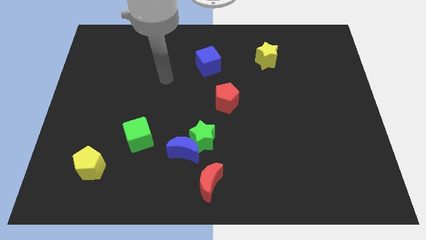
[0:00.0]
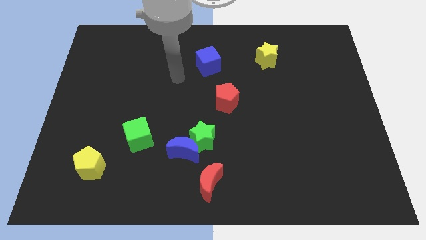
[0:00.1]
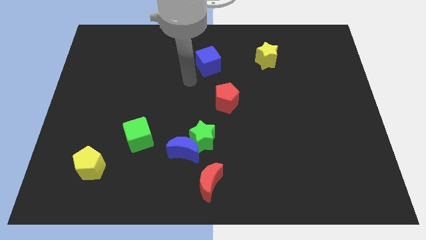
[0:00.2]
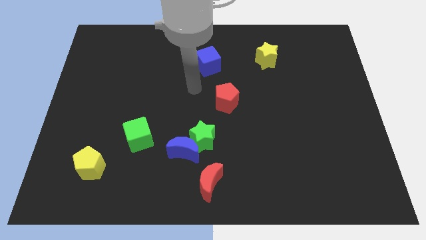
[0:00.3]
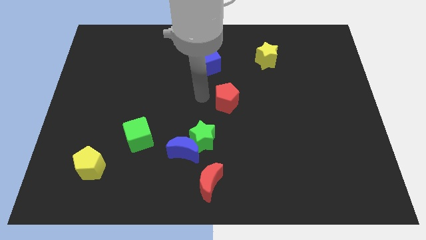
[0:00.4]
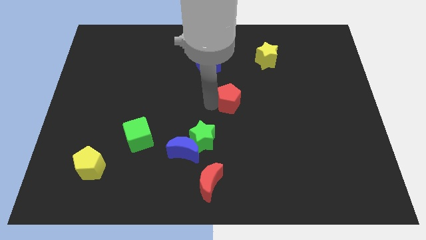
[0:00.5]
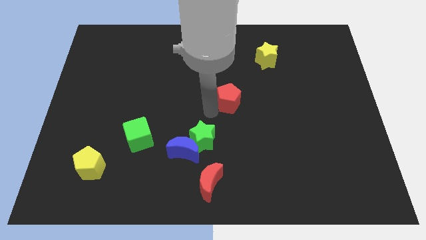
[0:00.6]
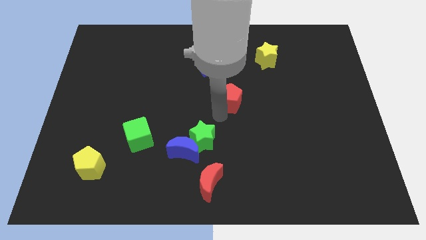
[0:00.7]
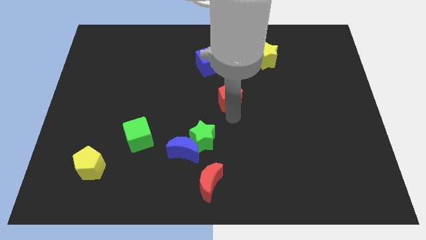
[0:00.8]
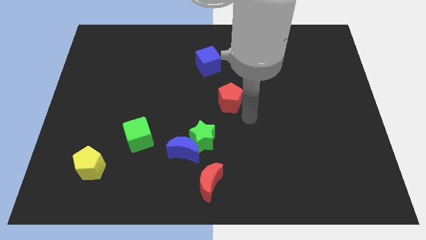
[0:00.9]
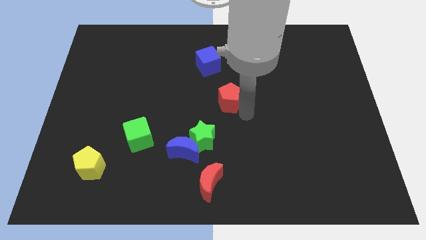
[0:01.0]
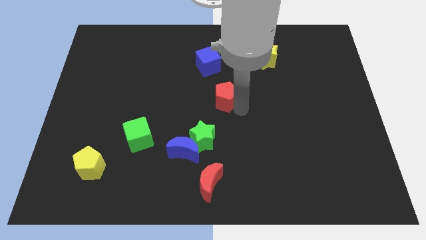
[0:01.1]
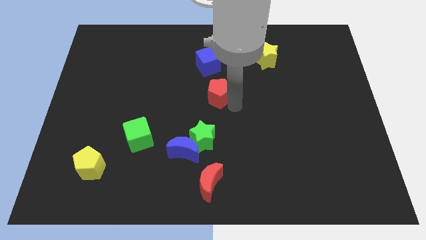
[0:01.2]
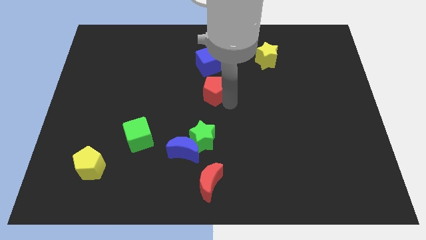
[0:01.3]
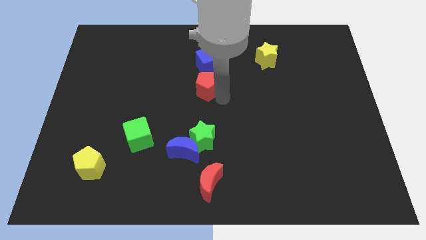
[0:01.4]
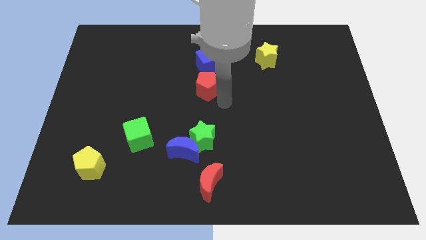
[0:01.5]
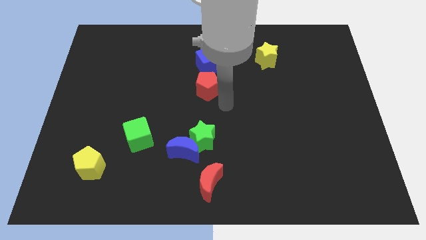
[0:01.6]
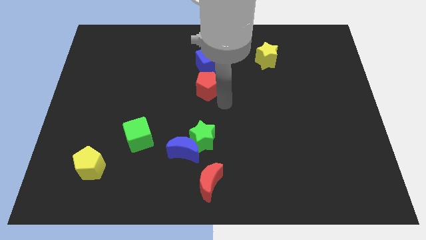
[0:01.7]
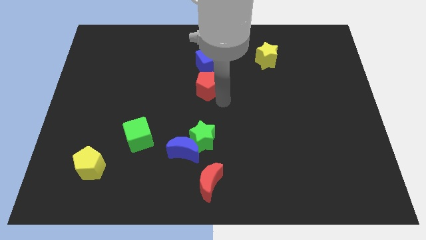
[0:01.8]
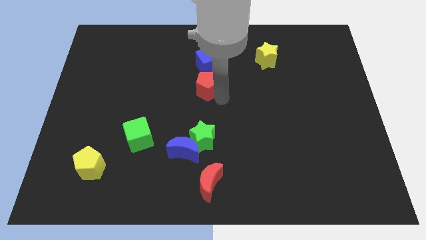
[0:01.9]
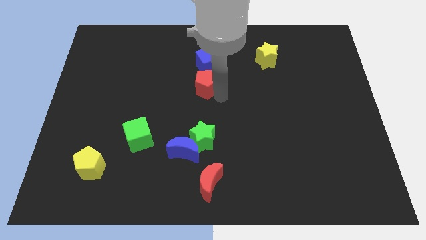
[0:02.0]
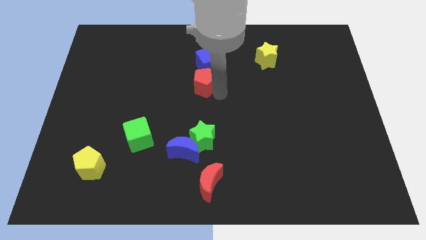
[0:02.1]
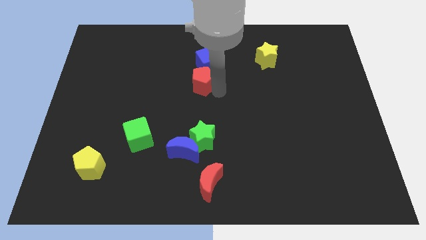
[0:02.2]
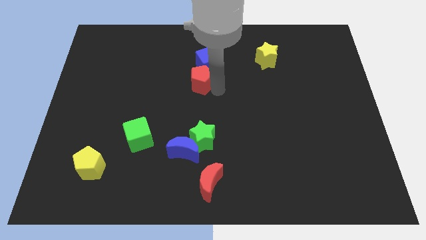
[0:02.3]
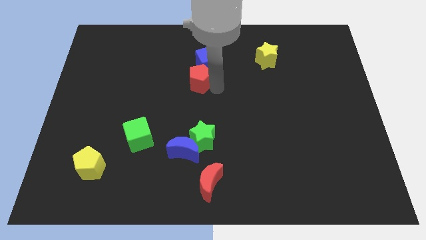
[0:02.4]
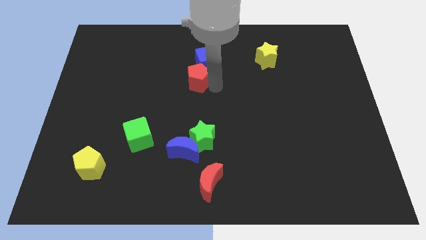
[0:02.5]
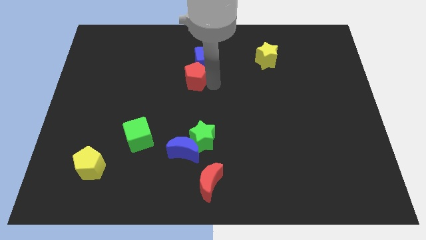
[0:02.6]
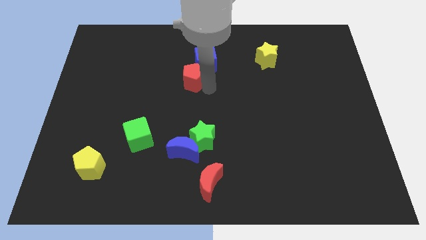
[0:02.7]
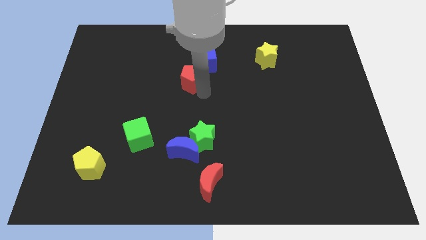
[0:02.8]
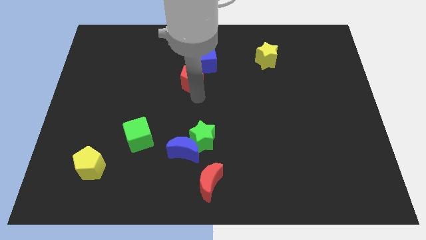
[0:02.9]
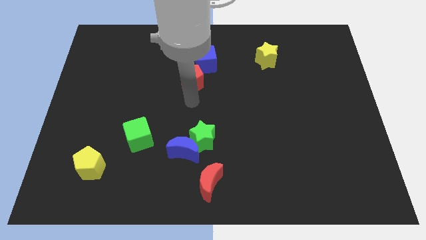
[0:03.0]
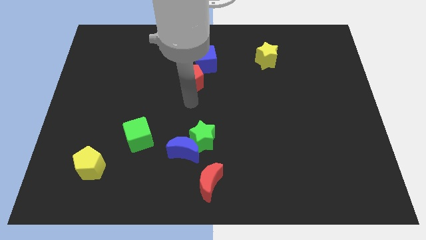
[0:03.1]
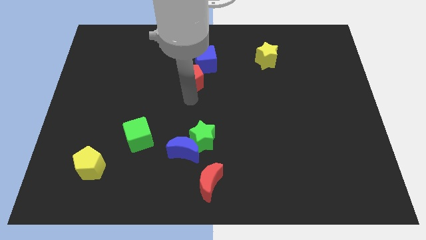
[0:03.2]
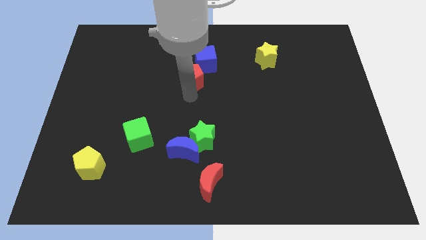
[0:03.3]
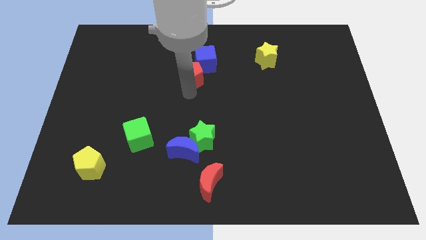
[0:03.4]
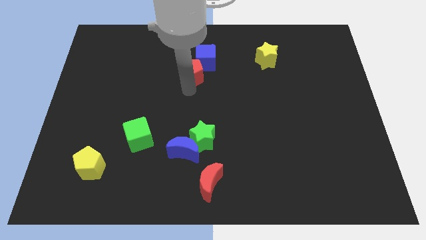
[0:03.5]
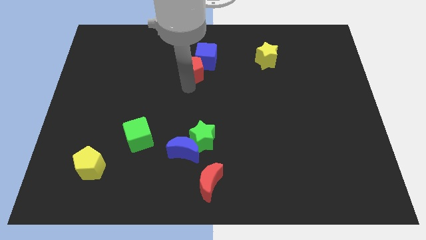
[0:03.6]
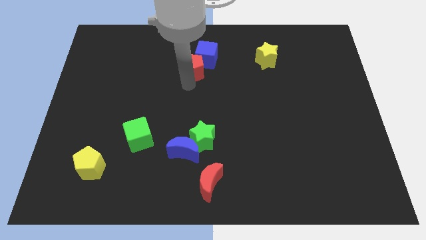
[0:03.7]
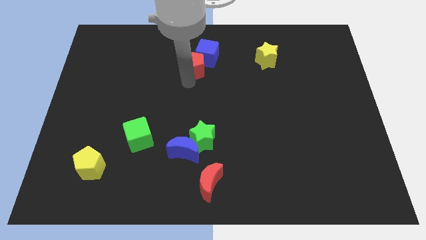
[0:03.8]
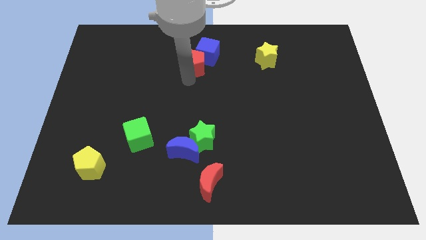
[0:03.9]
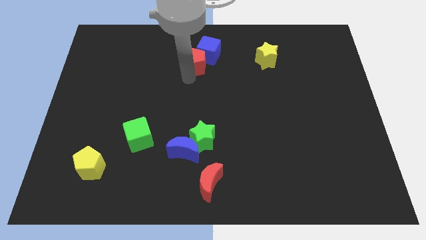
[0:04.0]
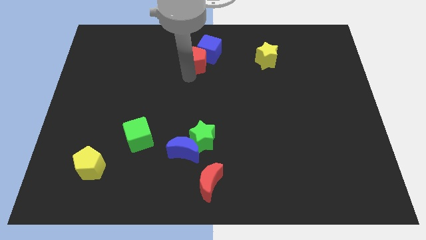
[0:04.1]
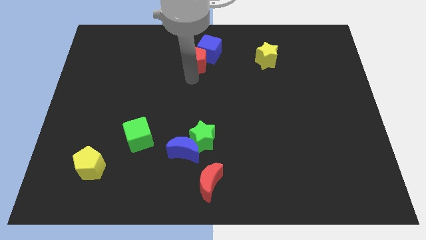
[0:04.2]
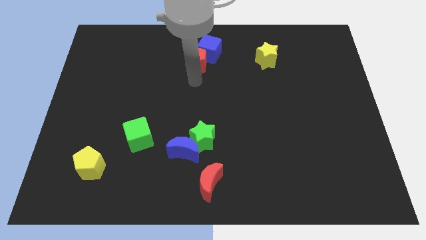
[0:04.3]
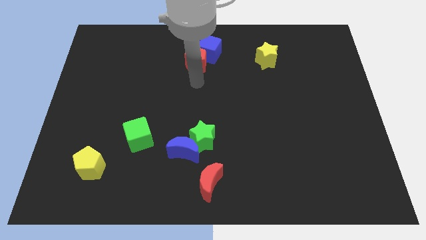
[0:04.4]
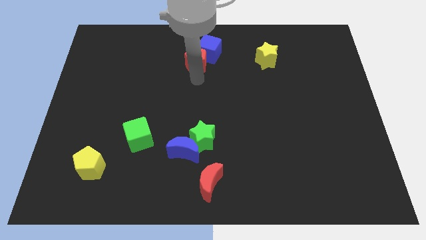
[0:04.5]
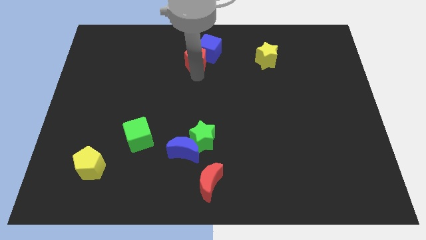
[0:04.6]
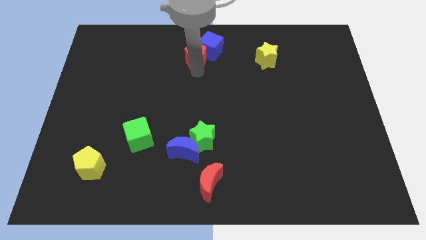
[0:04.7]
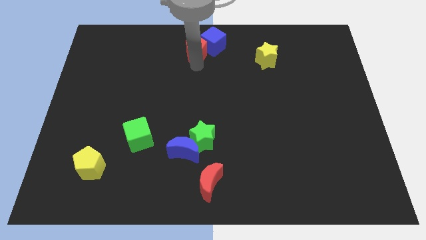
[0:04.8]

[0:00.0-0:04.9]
put the red pentagon to the top side

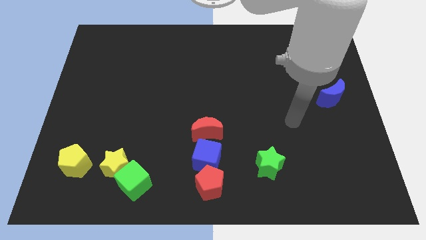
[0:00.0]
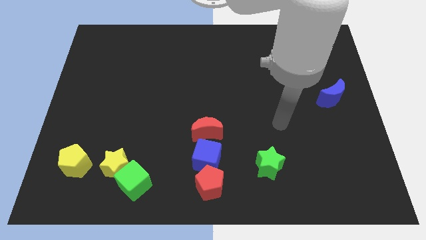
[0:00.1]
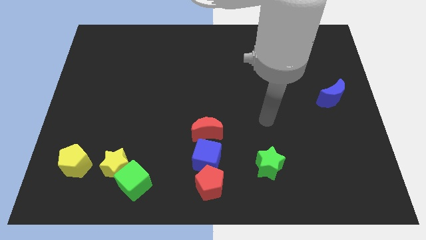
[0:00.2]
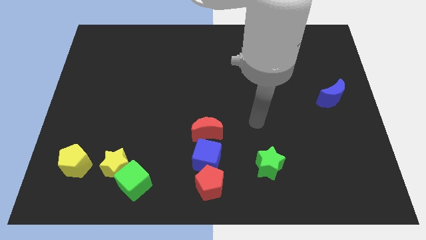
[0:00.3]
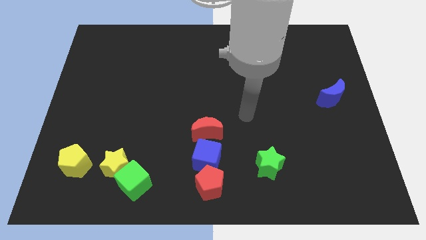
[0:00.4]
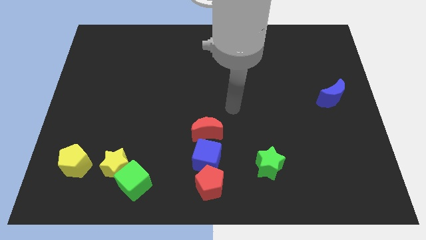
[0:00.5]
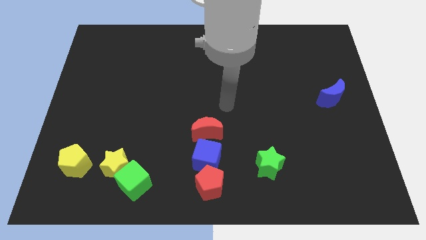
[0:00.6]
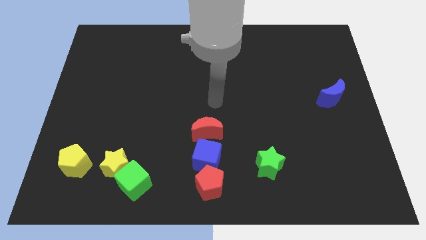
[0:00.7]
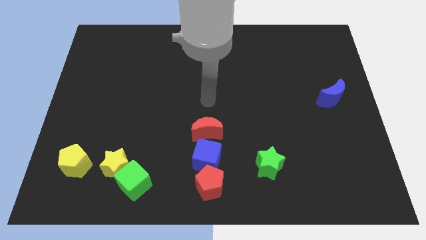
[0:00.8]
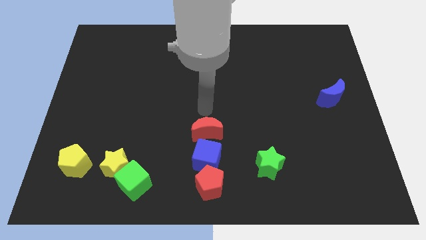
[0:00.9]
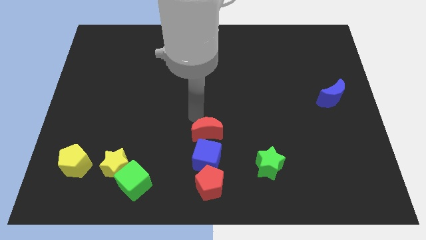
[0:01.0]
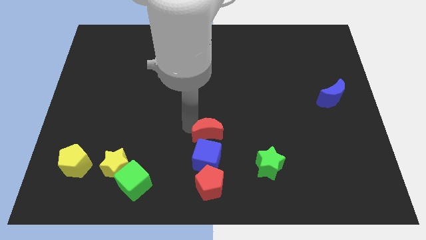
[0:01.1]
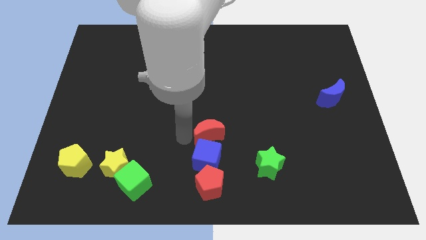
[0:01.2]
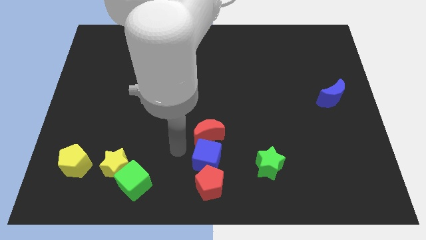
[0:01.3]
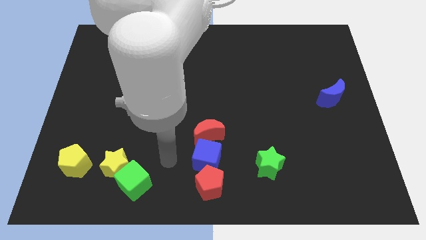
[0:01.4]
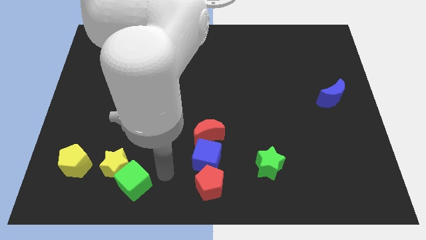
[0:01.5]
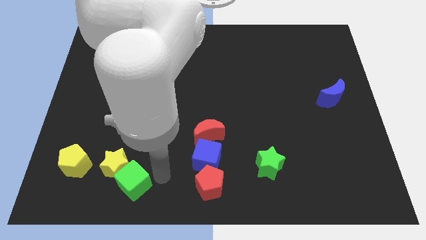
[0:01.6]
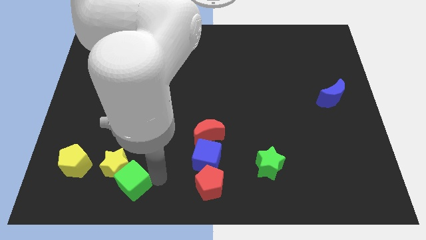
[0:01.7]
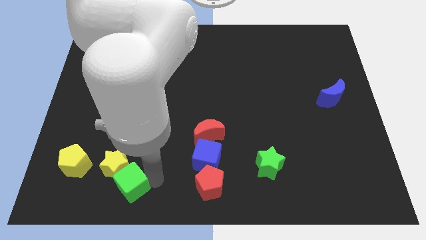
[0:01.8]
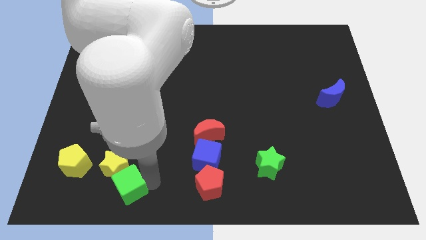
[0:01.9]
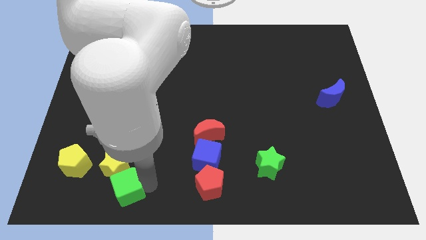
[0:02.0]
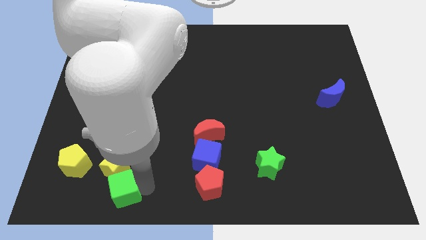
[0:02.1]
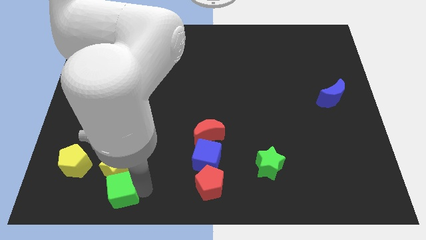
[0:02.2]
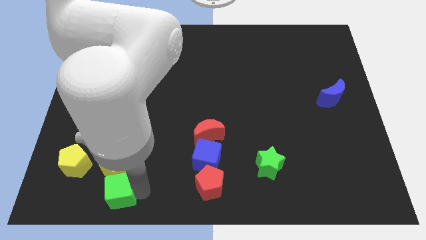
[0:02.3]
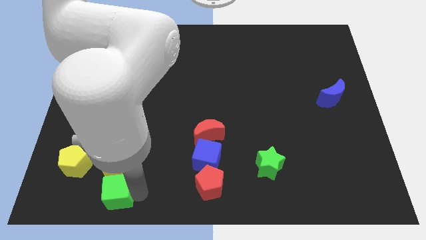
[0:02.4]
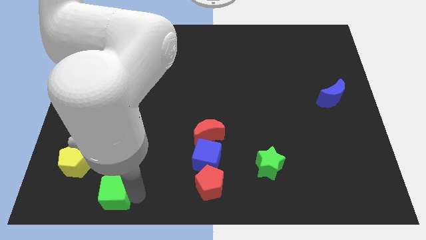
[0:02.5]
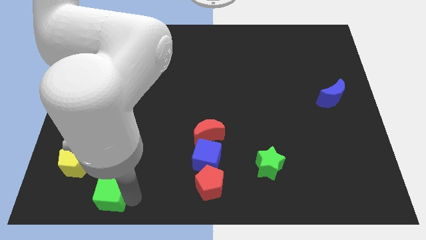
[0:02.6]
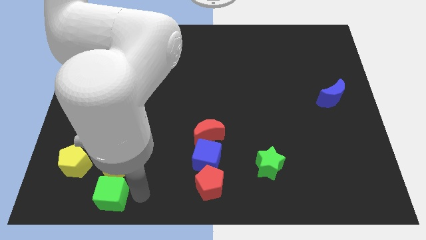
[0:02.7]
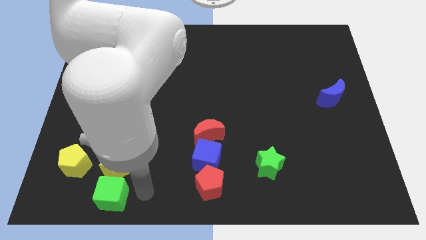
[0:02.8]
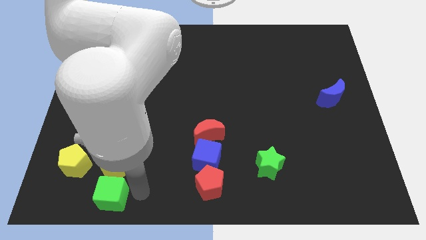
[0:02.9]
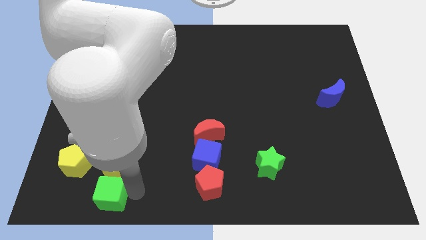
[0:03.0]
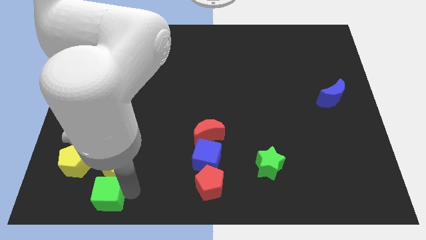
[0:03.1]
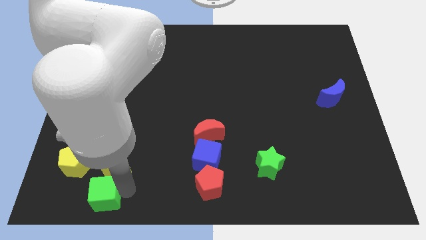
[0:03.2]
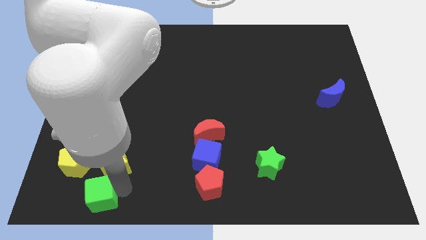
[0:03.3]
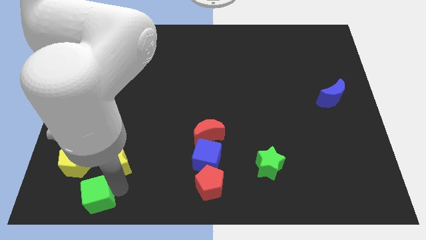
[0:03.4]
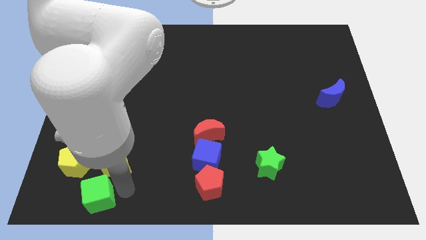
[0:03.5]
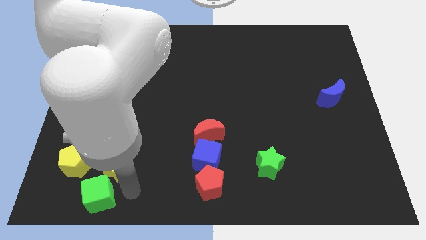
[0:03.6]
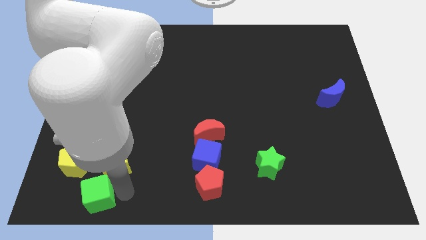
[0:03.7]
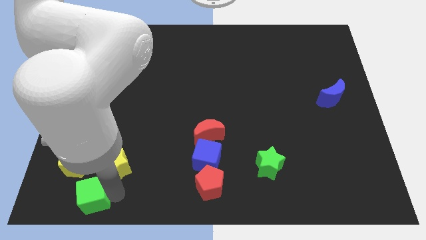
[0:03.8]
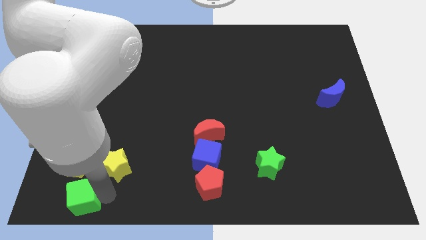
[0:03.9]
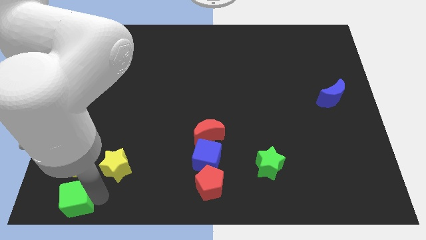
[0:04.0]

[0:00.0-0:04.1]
put the green cube to the lower left corner
